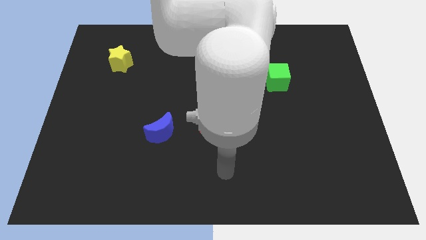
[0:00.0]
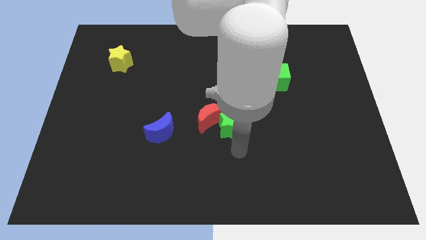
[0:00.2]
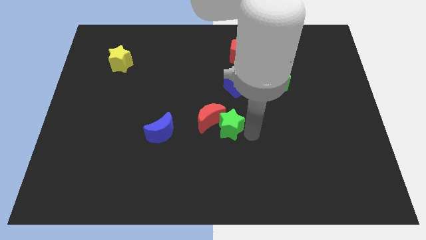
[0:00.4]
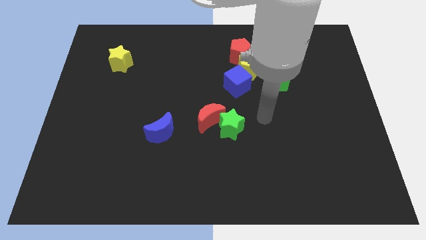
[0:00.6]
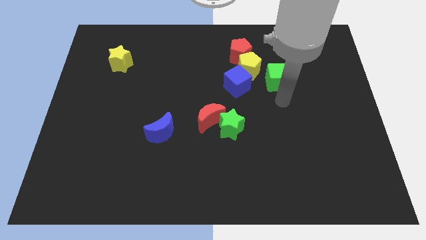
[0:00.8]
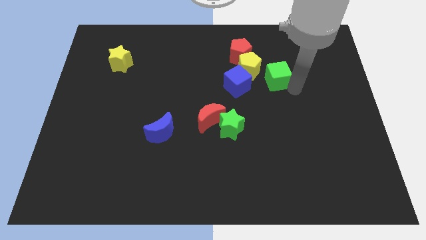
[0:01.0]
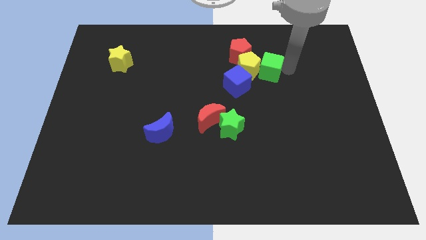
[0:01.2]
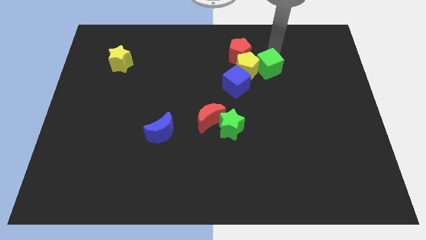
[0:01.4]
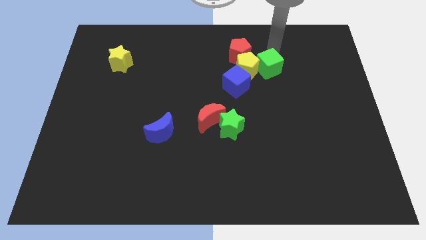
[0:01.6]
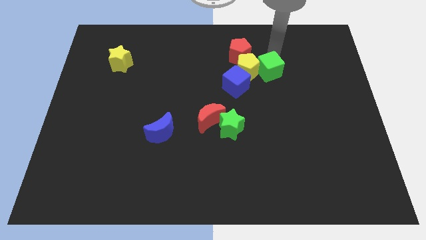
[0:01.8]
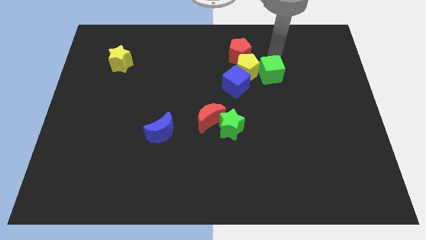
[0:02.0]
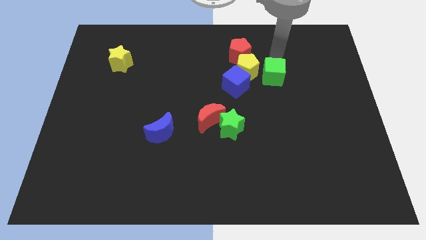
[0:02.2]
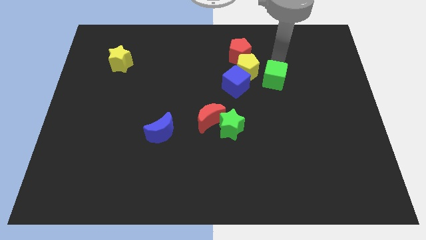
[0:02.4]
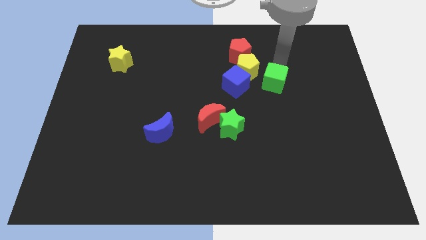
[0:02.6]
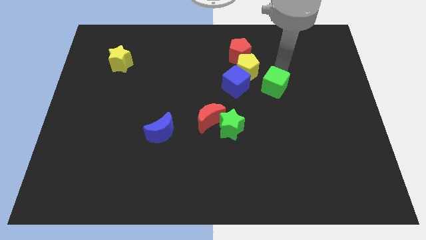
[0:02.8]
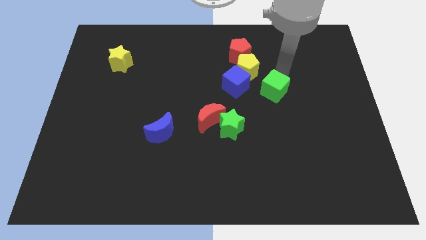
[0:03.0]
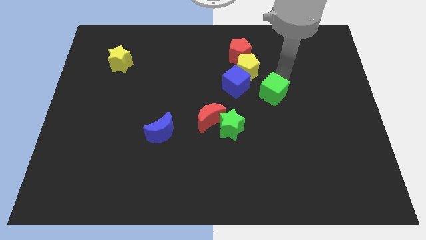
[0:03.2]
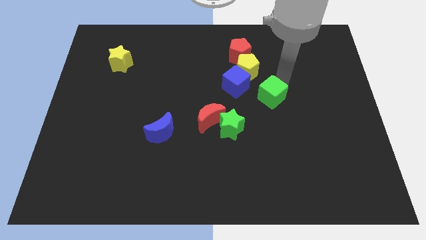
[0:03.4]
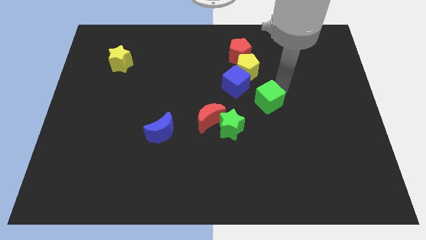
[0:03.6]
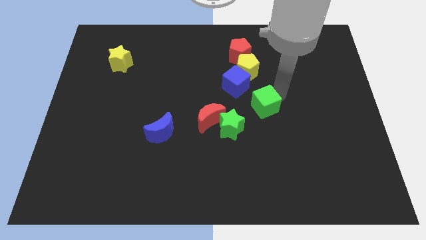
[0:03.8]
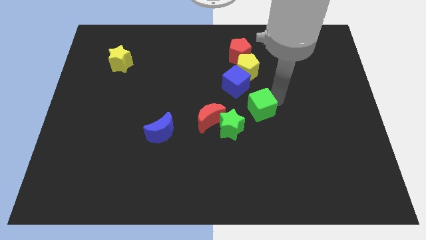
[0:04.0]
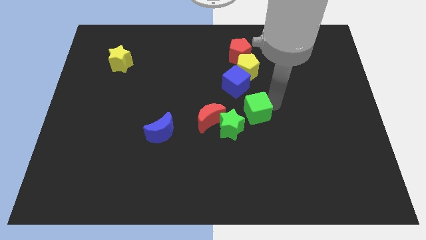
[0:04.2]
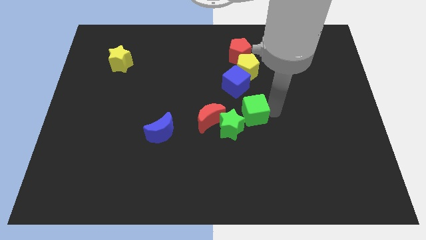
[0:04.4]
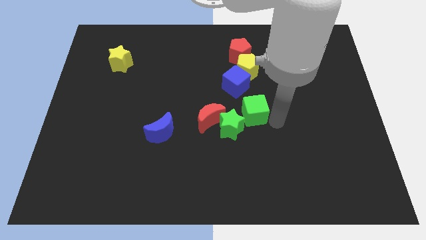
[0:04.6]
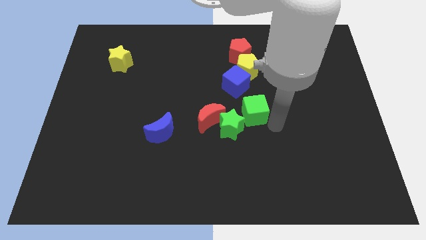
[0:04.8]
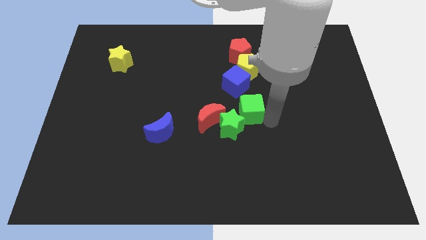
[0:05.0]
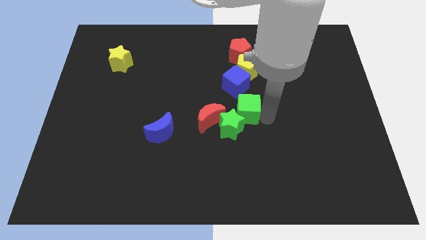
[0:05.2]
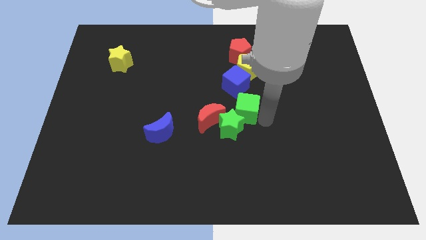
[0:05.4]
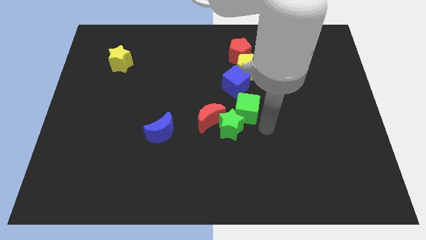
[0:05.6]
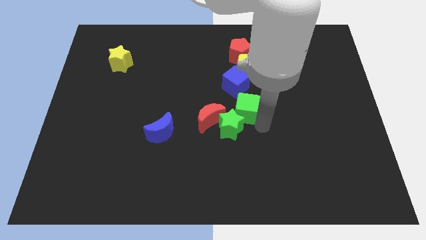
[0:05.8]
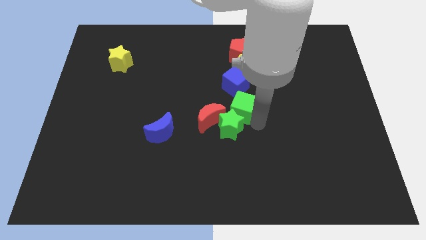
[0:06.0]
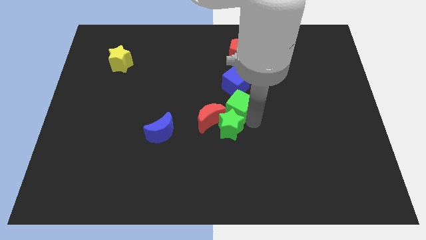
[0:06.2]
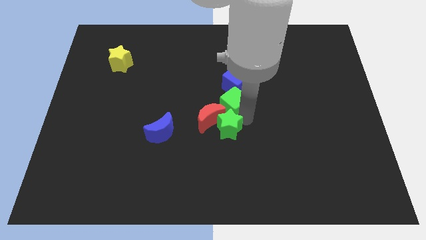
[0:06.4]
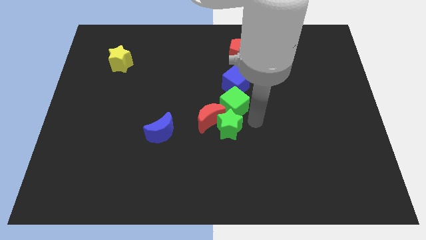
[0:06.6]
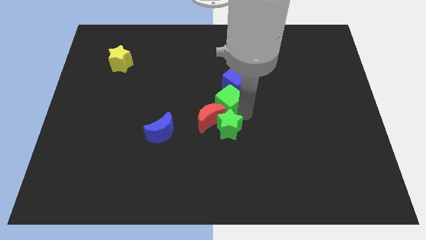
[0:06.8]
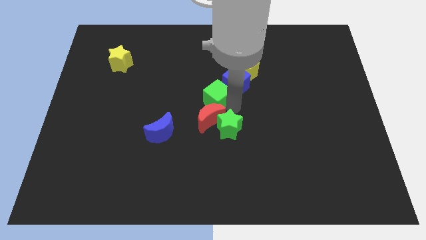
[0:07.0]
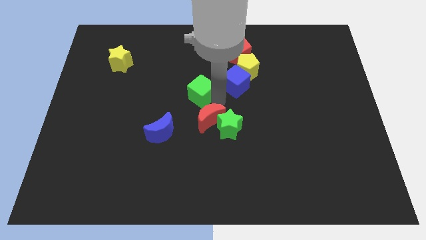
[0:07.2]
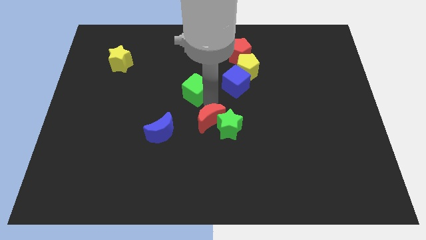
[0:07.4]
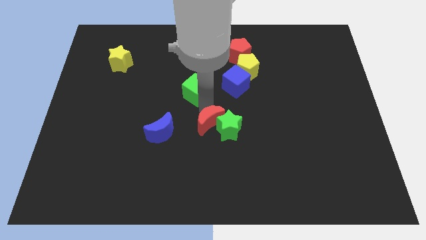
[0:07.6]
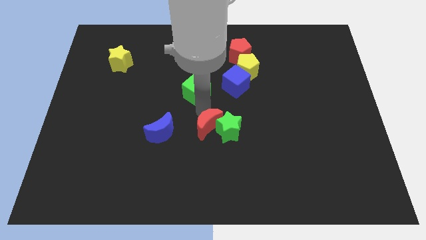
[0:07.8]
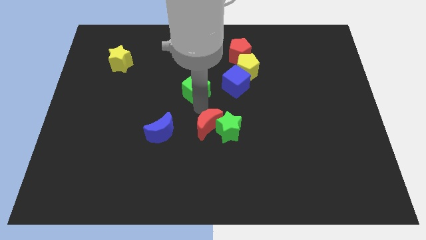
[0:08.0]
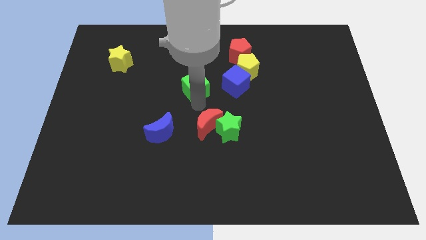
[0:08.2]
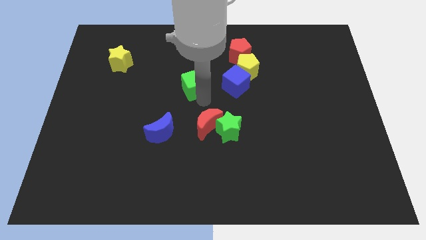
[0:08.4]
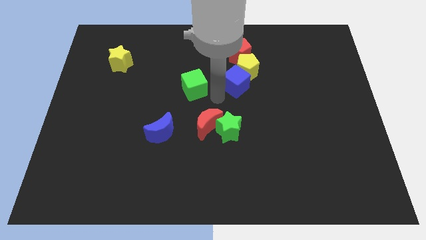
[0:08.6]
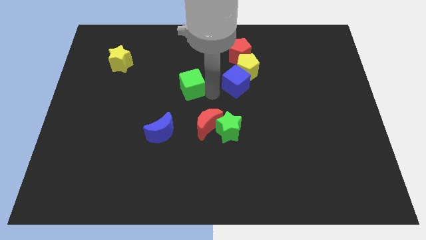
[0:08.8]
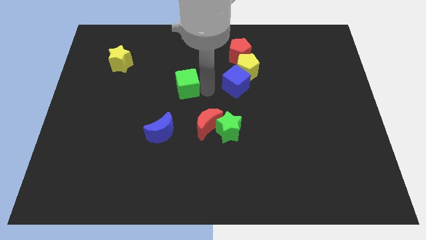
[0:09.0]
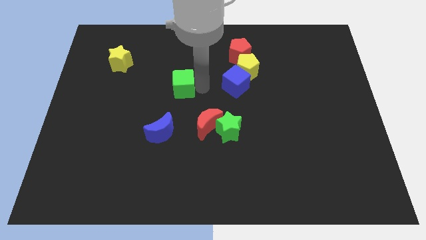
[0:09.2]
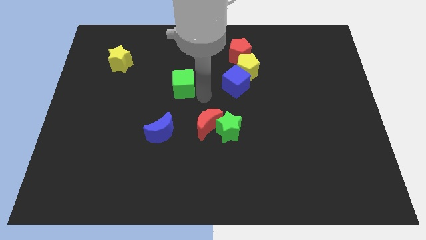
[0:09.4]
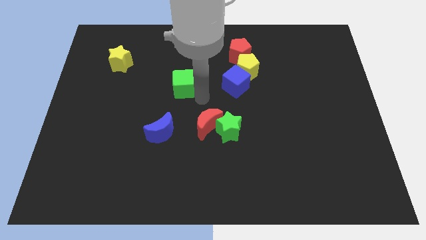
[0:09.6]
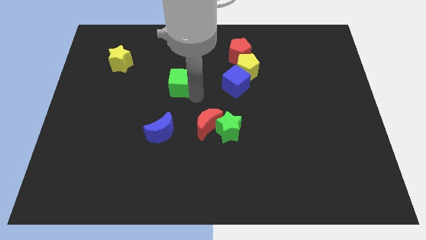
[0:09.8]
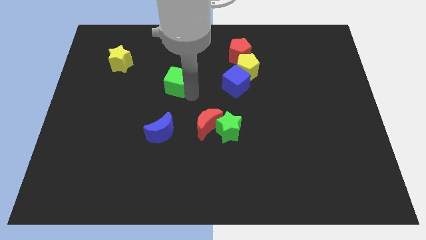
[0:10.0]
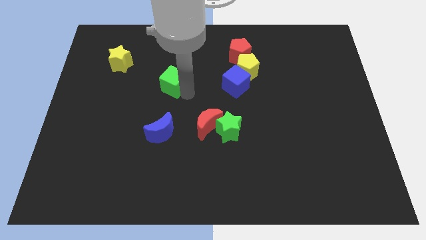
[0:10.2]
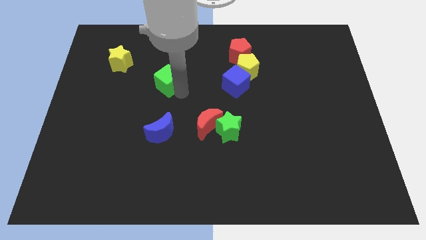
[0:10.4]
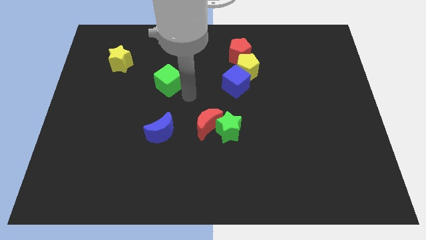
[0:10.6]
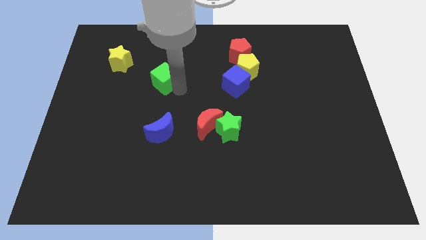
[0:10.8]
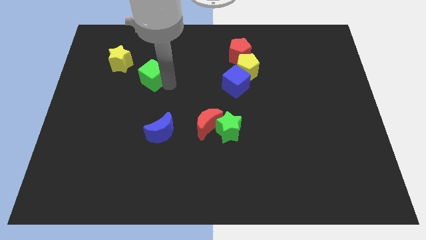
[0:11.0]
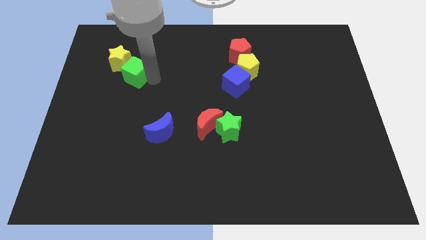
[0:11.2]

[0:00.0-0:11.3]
slide the green cube to the yellow star

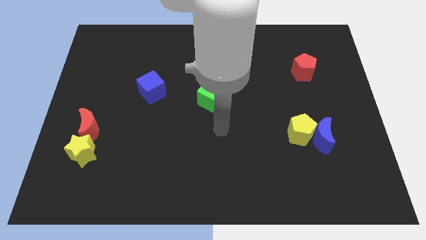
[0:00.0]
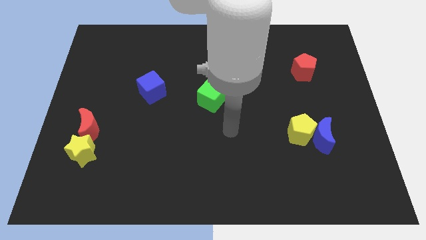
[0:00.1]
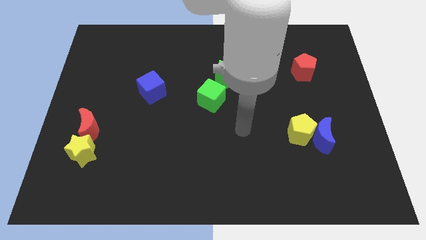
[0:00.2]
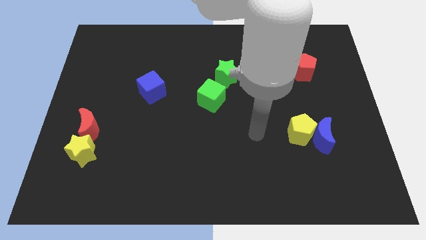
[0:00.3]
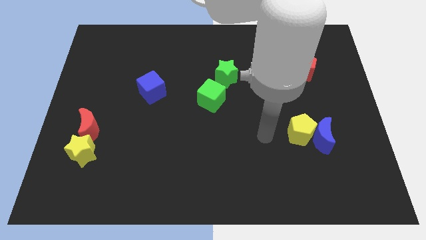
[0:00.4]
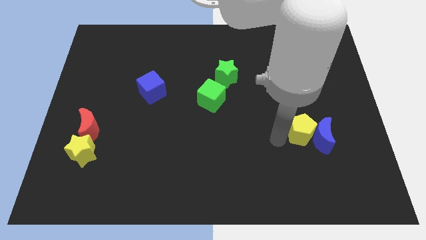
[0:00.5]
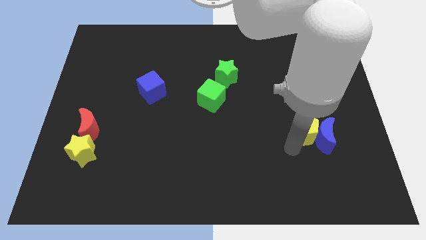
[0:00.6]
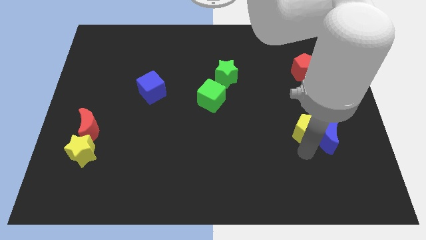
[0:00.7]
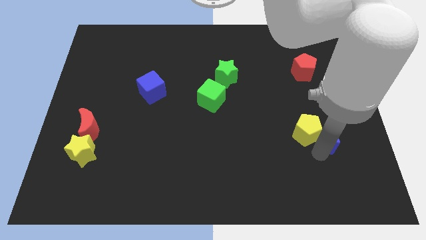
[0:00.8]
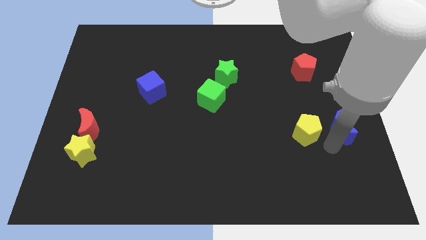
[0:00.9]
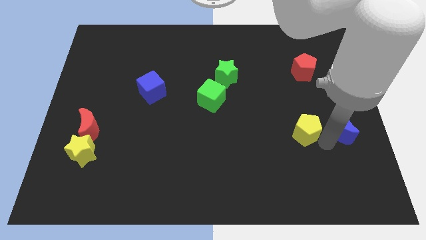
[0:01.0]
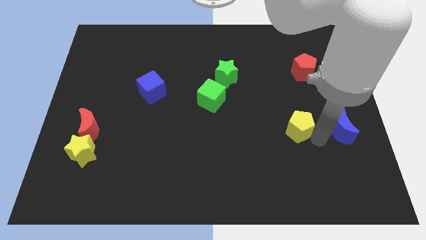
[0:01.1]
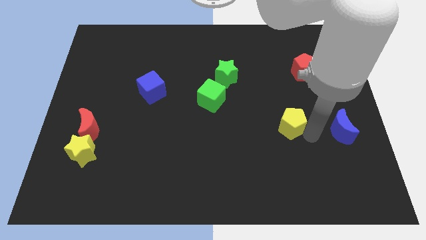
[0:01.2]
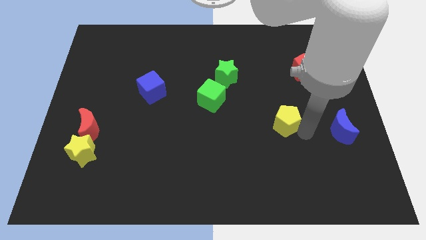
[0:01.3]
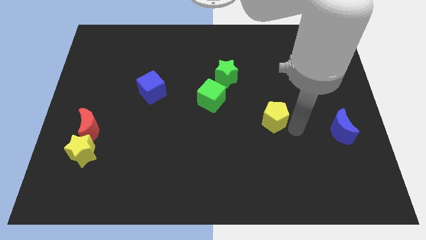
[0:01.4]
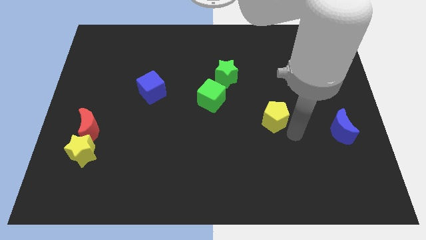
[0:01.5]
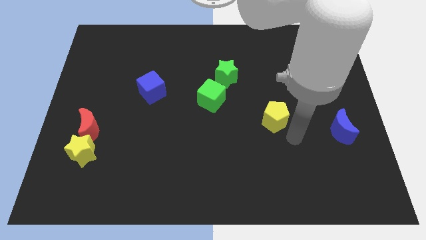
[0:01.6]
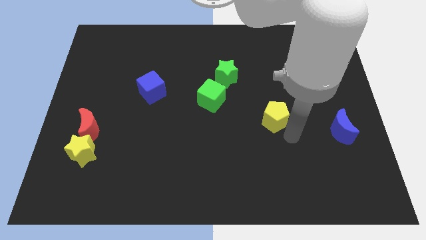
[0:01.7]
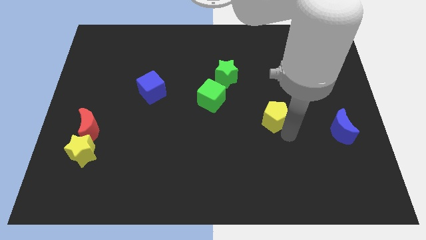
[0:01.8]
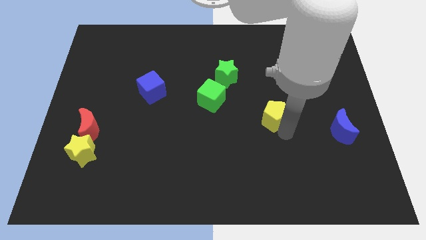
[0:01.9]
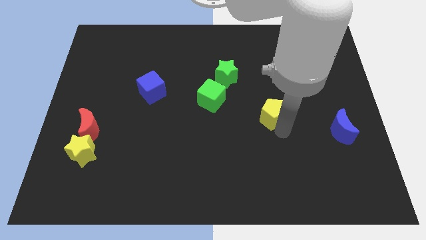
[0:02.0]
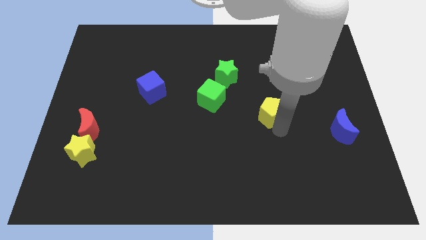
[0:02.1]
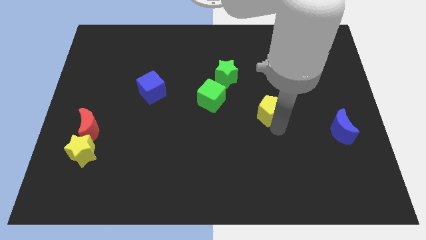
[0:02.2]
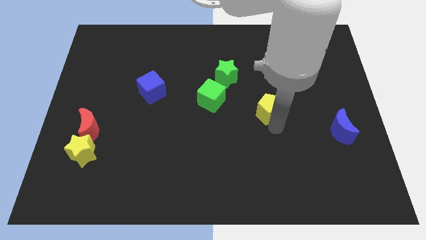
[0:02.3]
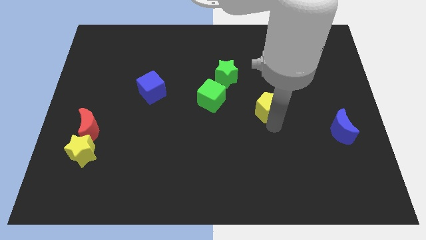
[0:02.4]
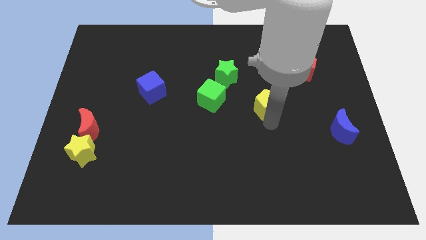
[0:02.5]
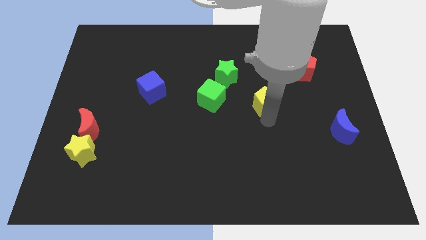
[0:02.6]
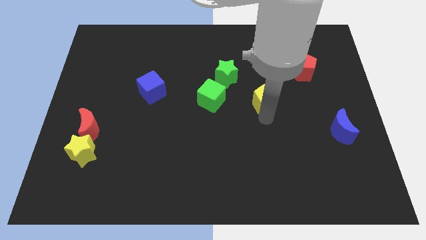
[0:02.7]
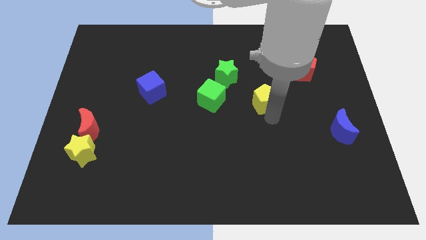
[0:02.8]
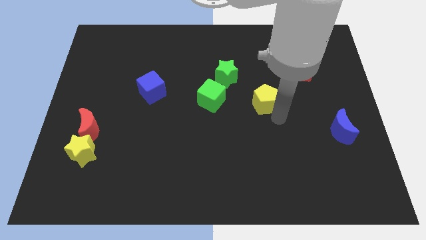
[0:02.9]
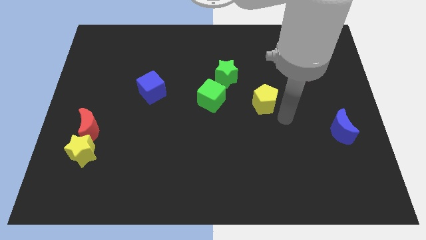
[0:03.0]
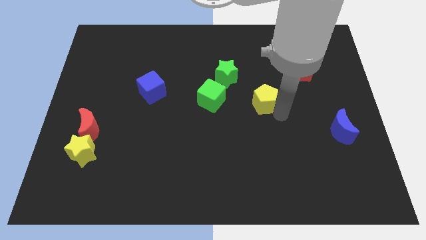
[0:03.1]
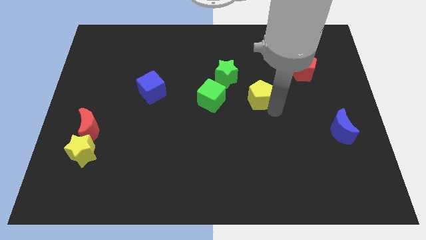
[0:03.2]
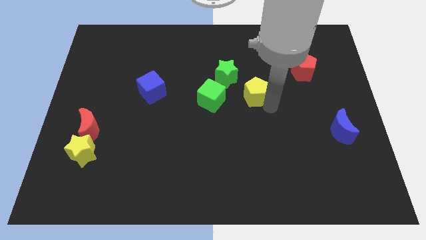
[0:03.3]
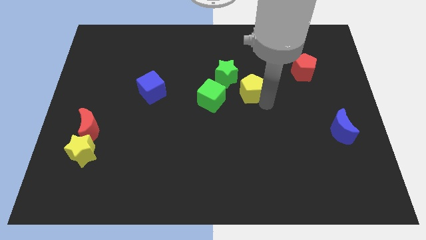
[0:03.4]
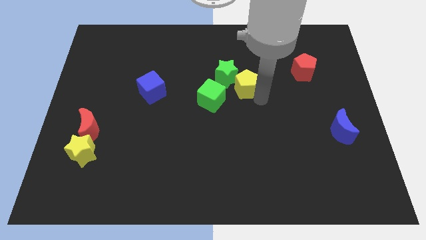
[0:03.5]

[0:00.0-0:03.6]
slide the yellow pentagon to the green star
